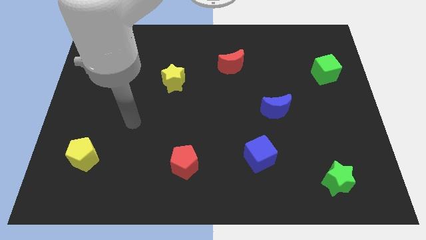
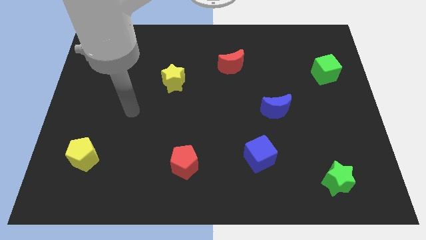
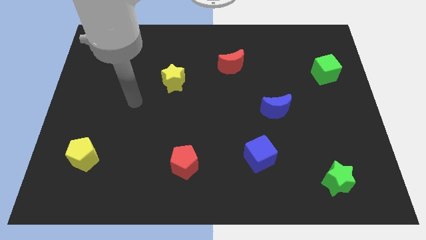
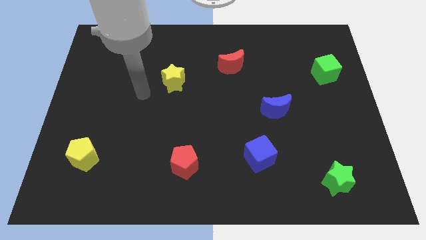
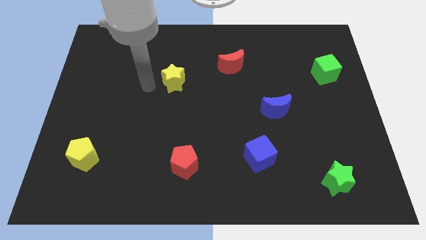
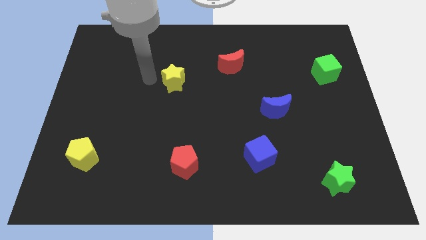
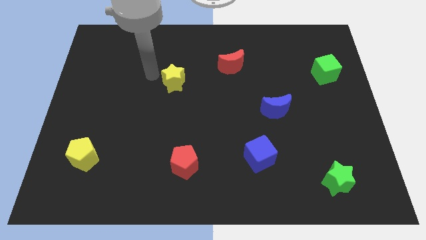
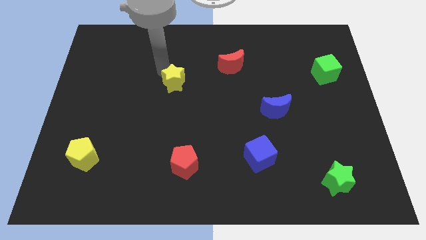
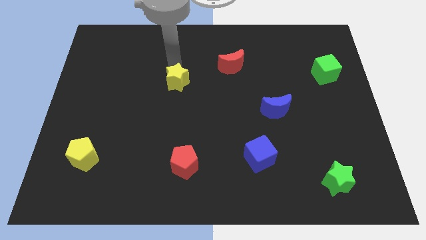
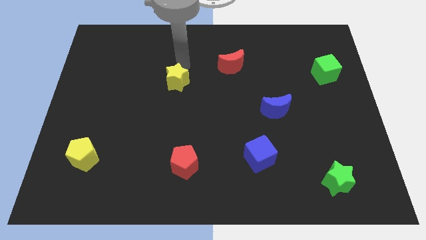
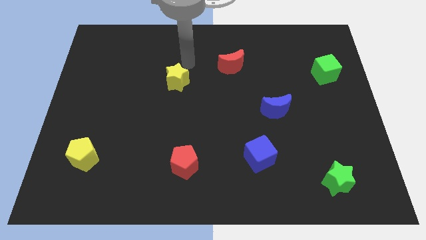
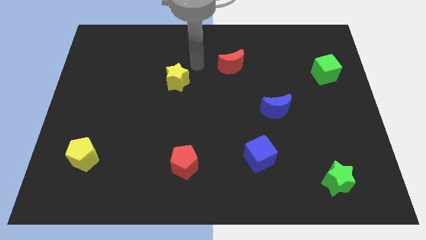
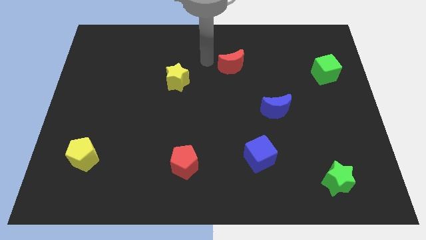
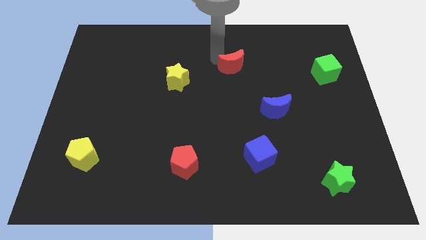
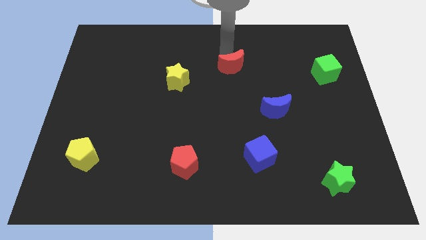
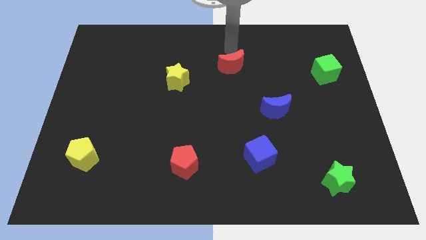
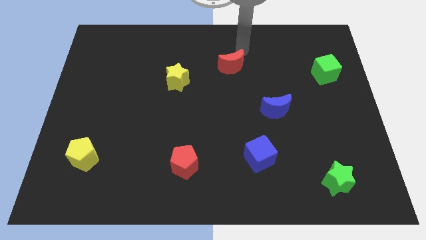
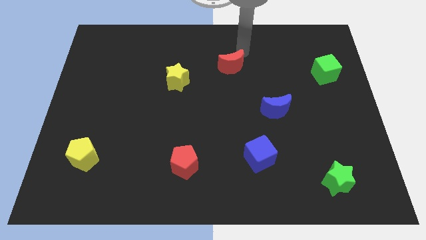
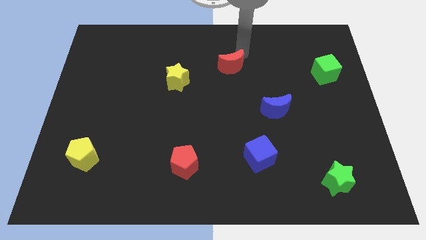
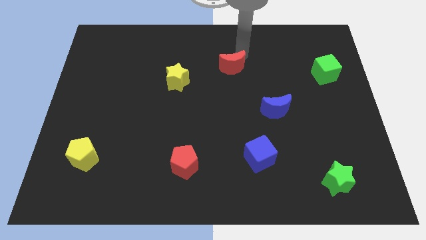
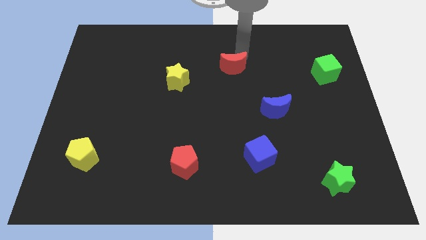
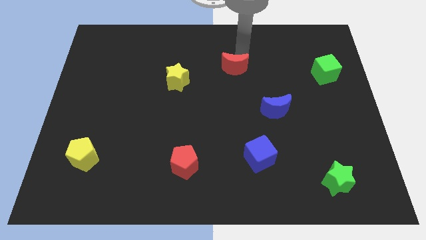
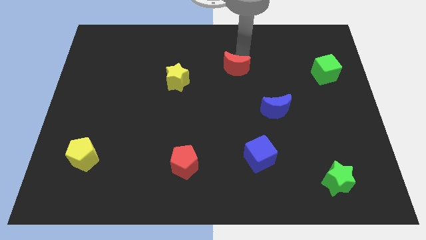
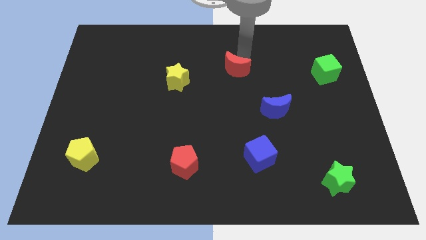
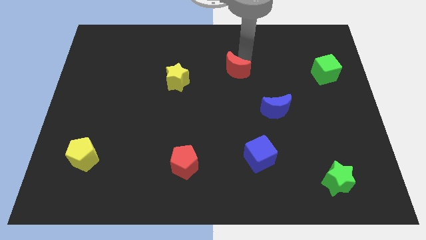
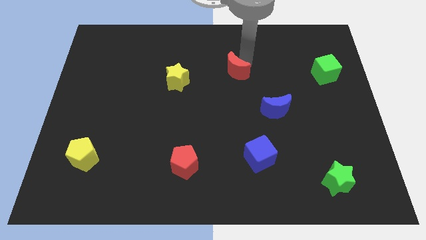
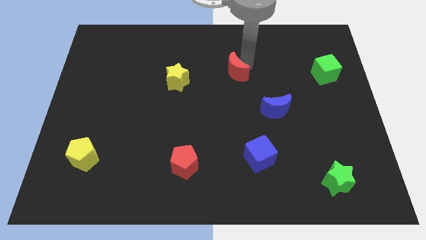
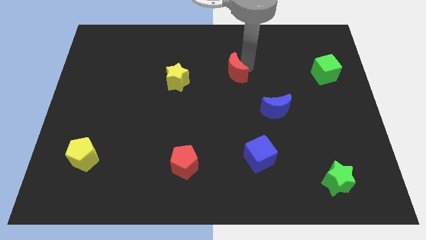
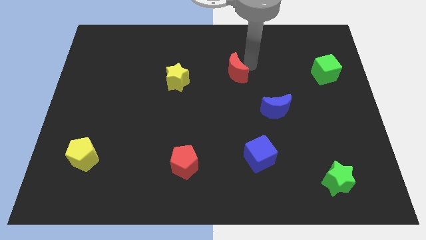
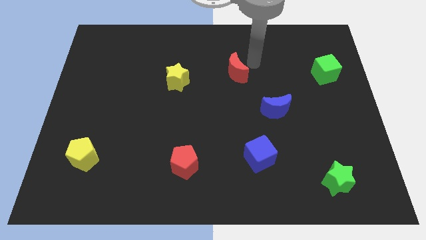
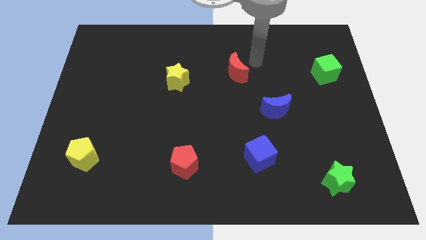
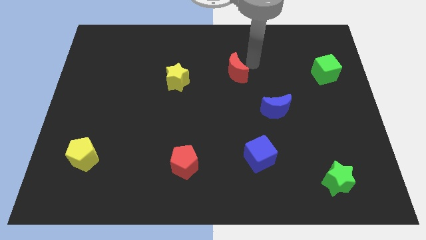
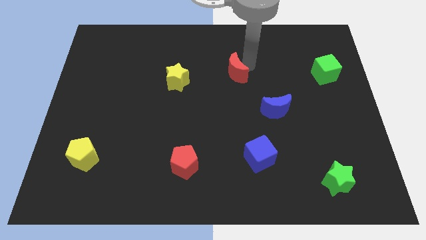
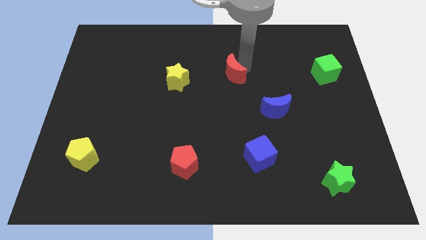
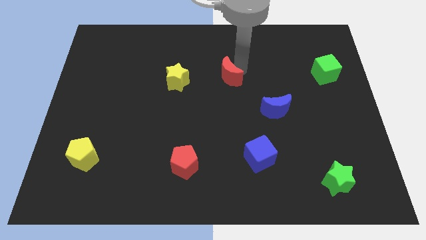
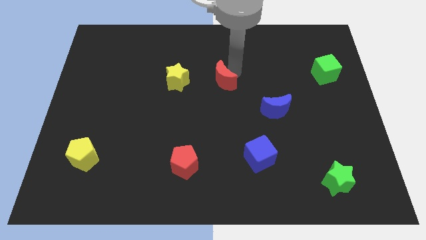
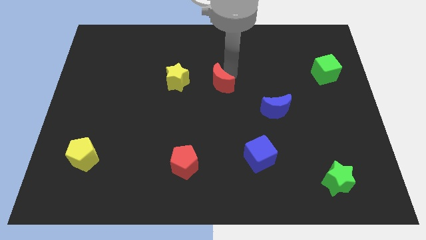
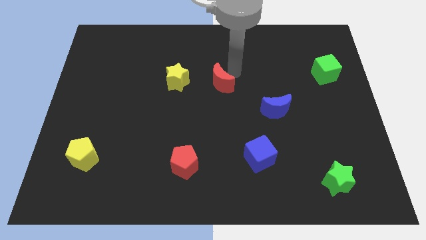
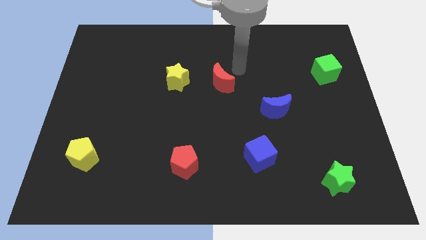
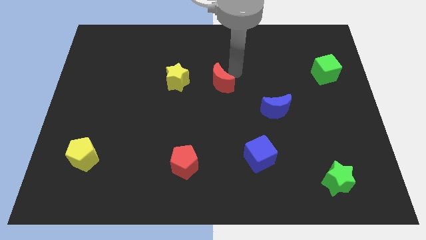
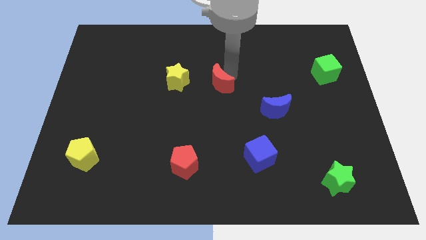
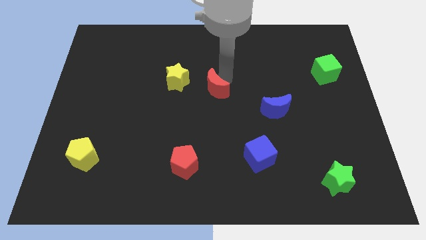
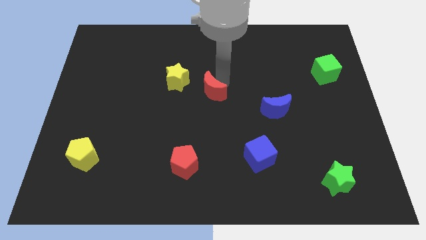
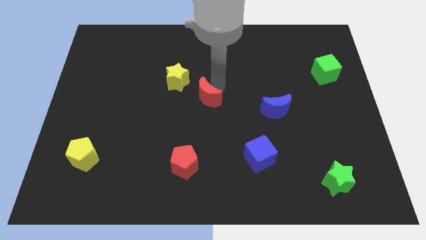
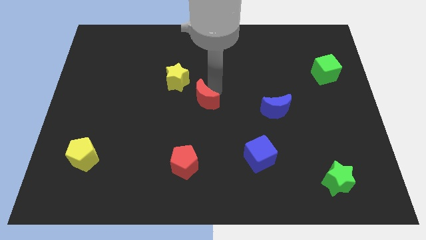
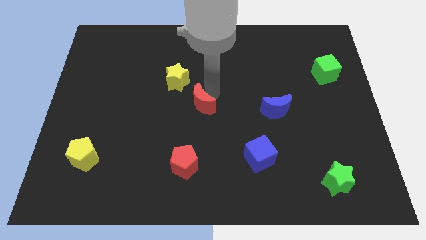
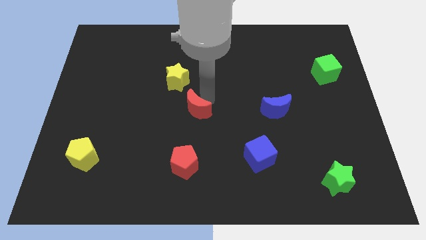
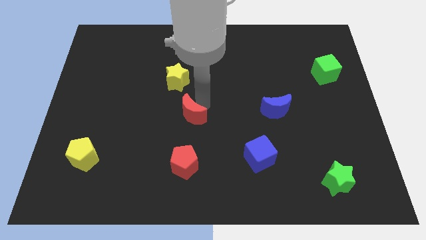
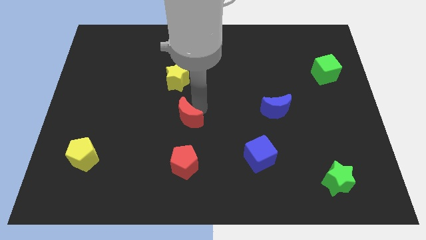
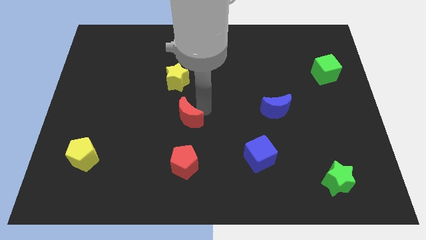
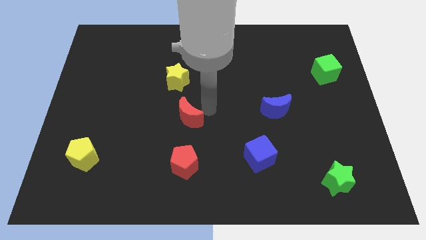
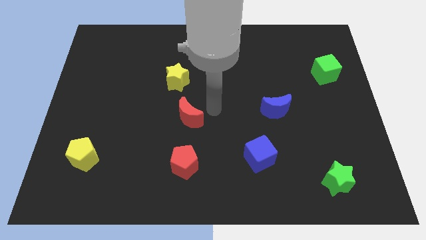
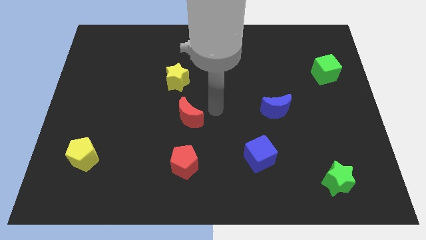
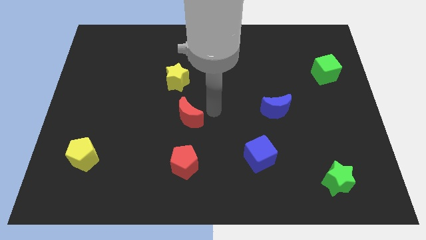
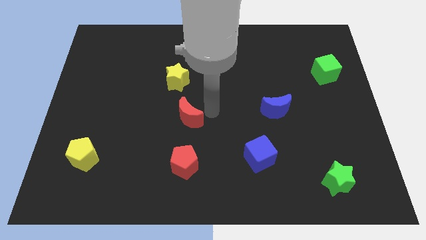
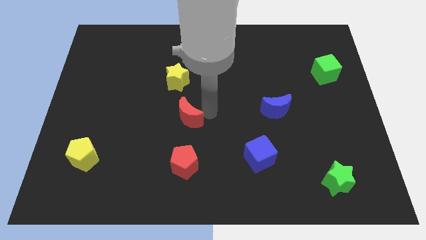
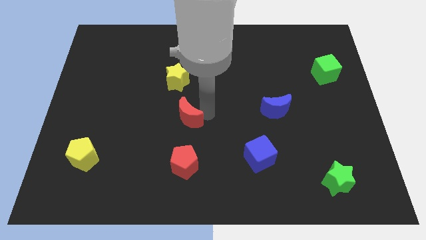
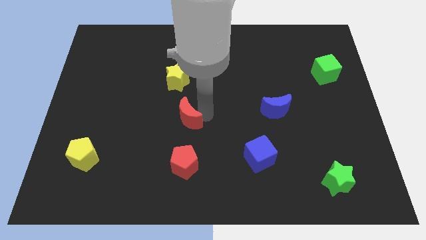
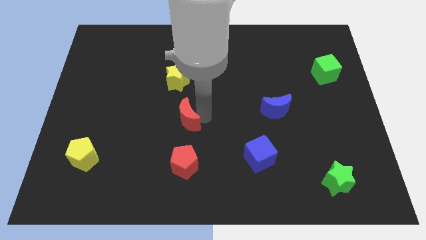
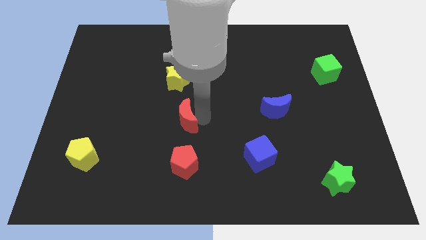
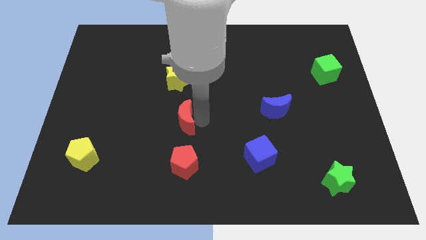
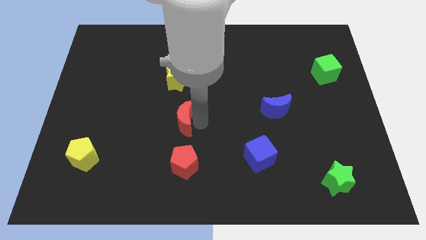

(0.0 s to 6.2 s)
move the red moon downwards and then to the left

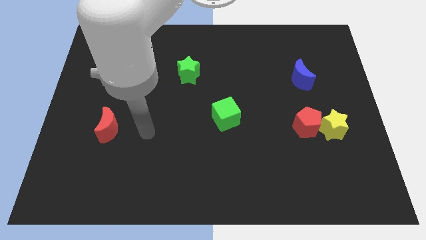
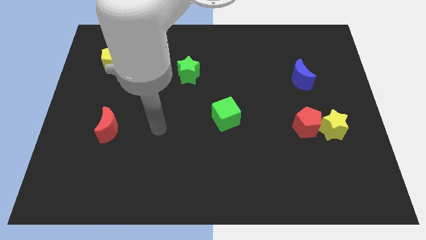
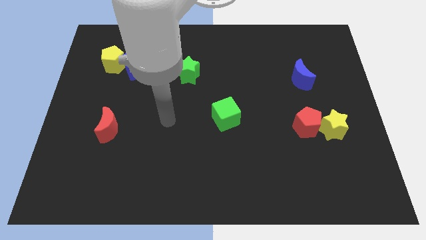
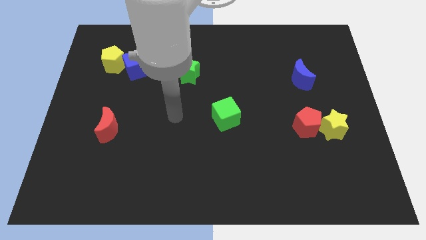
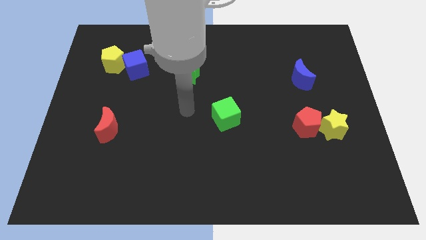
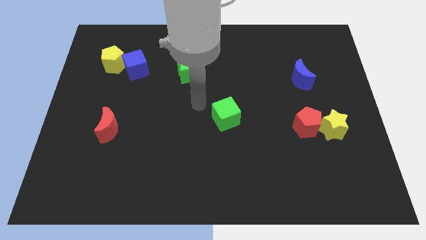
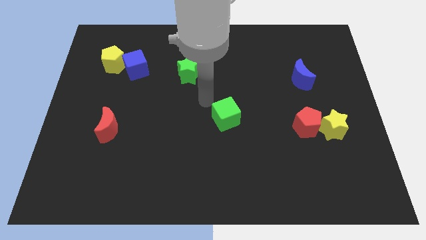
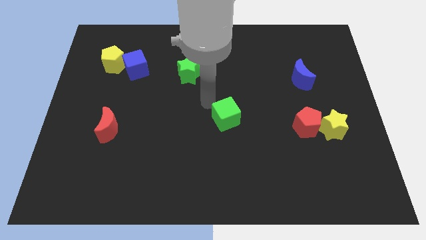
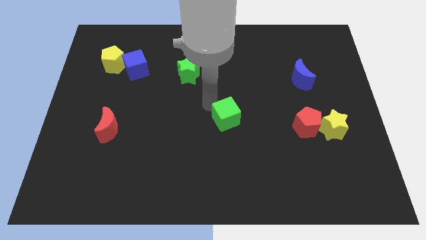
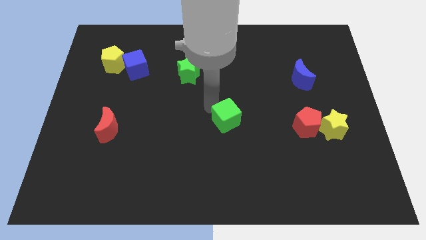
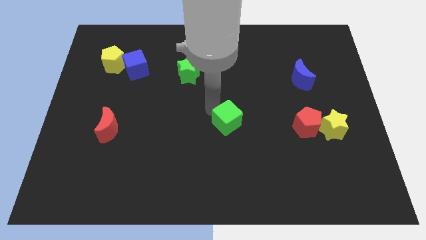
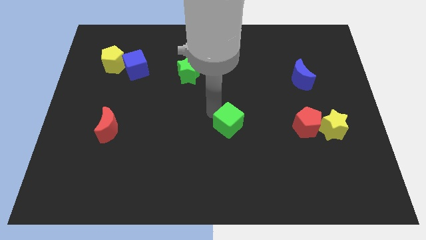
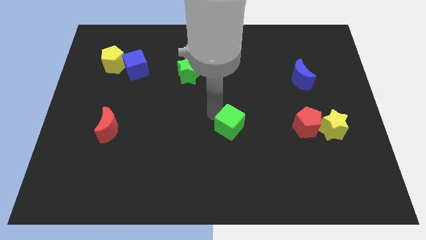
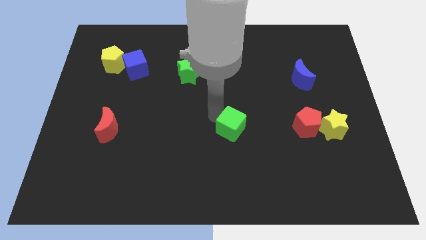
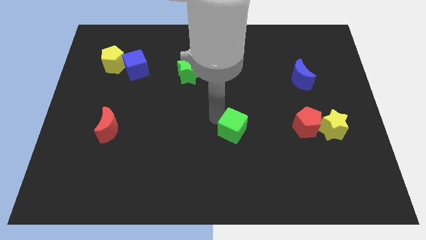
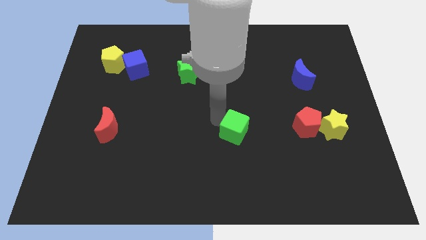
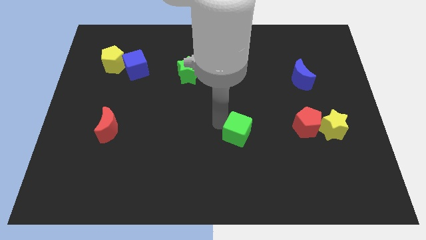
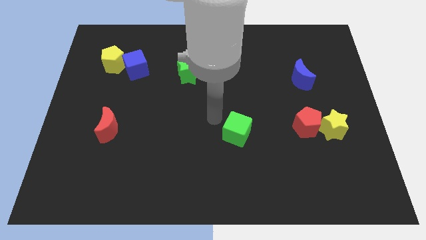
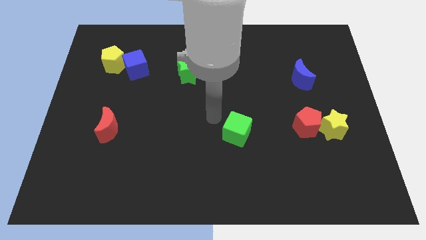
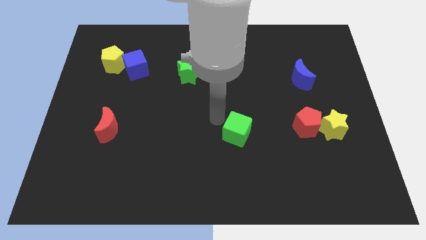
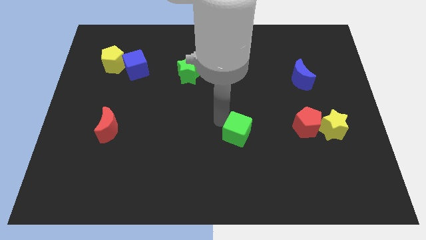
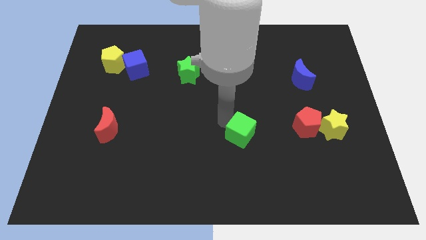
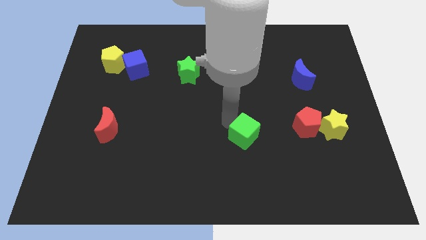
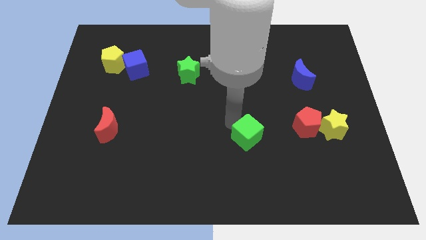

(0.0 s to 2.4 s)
push the green cube down and right diagonally a bit
